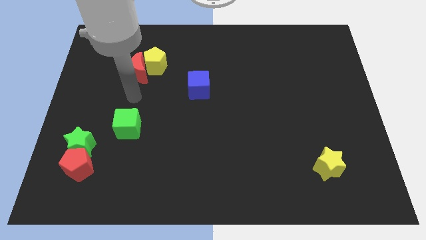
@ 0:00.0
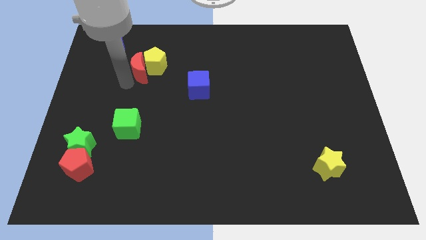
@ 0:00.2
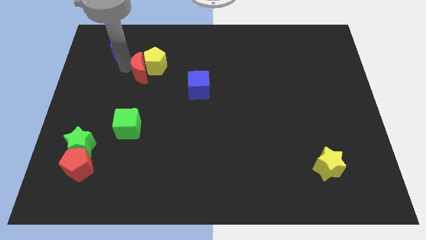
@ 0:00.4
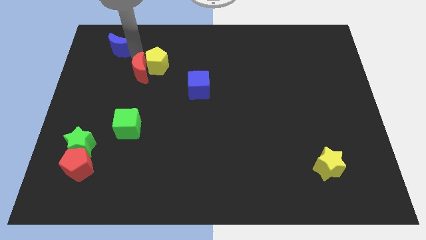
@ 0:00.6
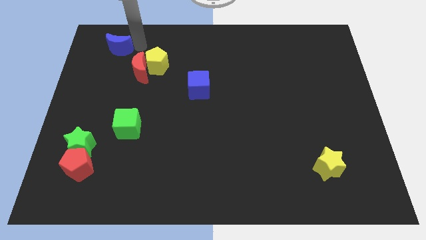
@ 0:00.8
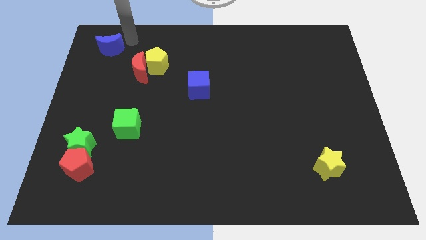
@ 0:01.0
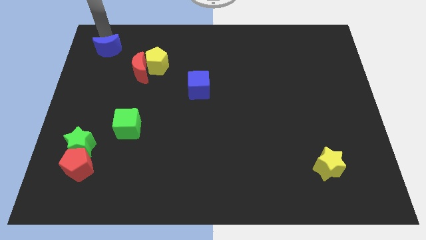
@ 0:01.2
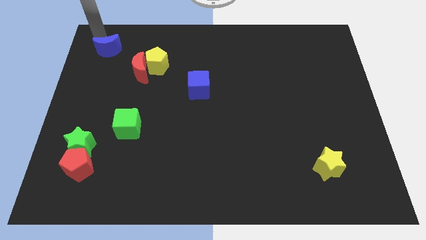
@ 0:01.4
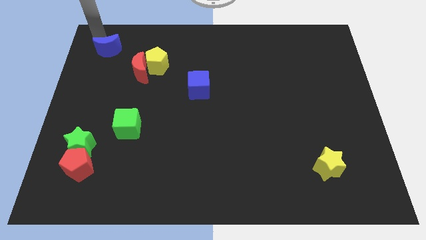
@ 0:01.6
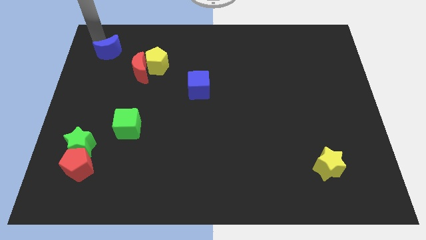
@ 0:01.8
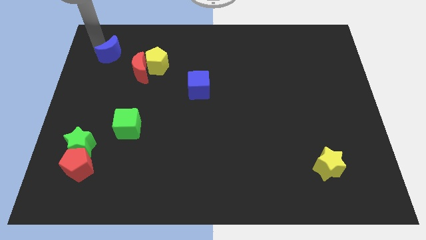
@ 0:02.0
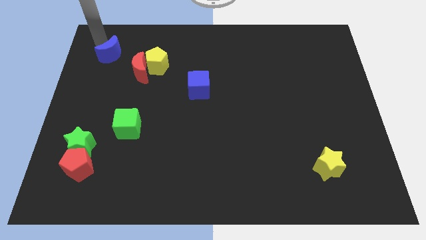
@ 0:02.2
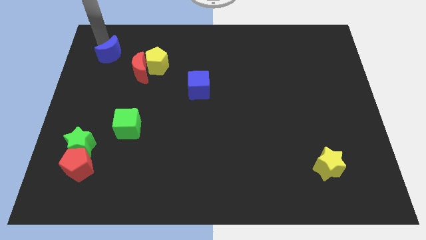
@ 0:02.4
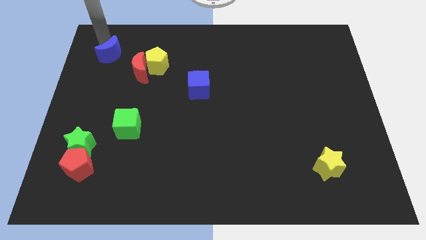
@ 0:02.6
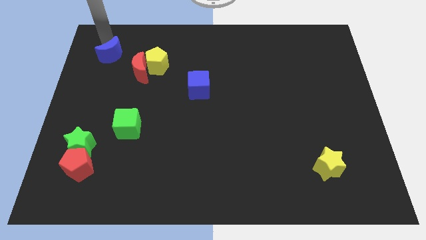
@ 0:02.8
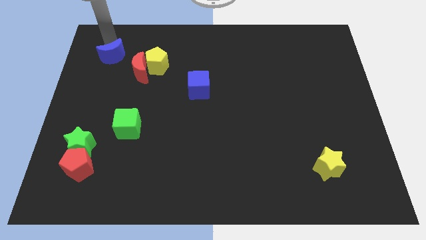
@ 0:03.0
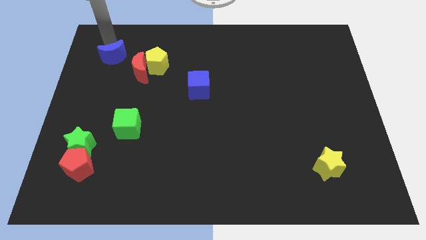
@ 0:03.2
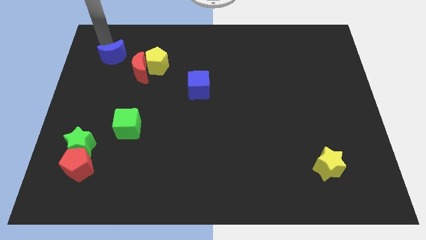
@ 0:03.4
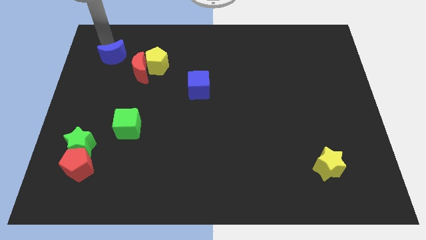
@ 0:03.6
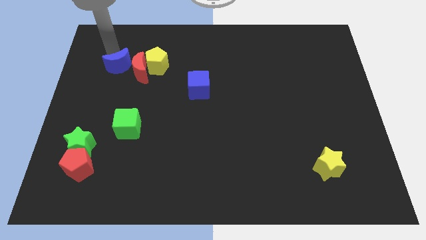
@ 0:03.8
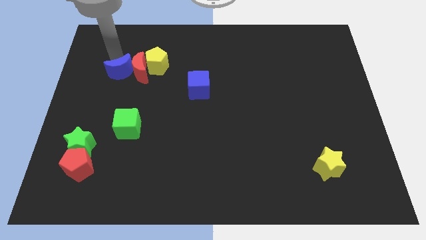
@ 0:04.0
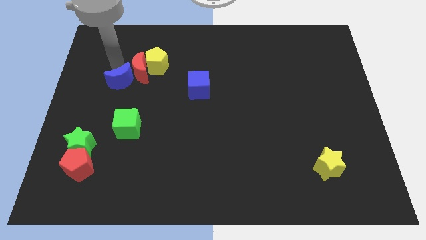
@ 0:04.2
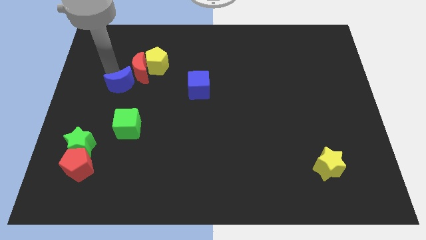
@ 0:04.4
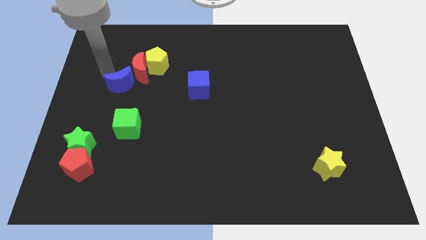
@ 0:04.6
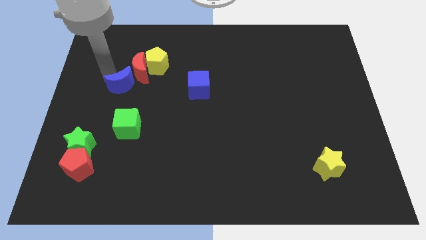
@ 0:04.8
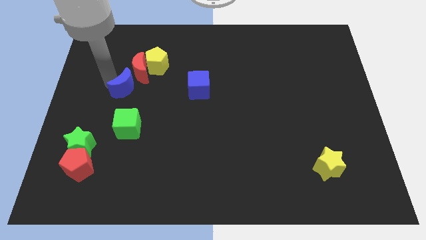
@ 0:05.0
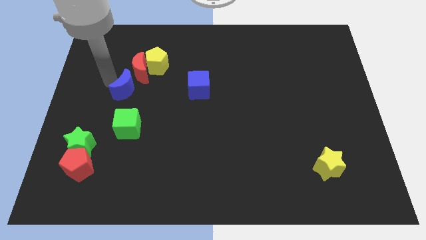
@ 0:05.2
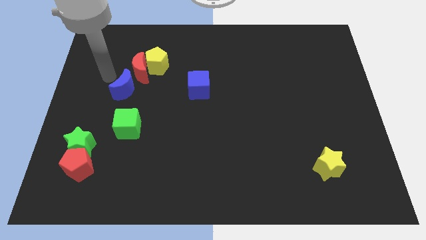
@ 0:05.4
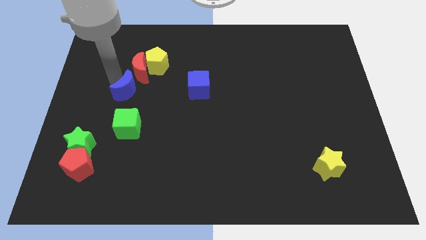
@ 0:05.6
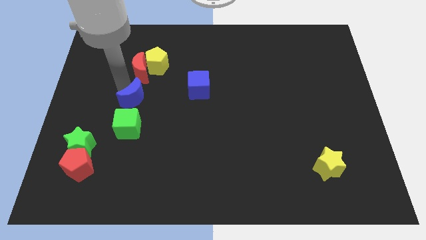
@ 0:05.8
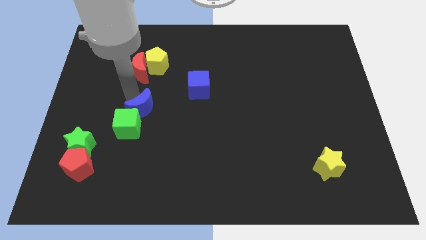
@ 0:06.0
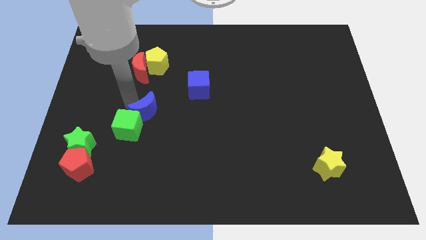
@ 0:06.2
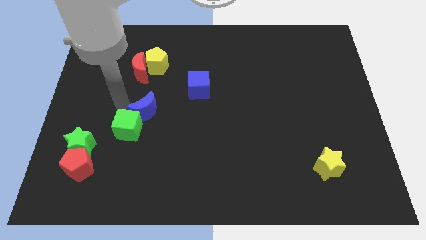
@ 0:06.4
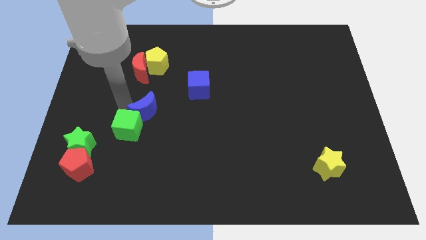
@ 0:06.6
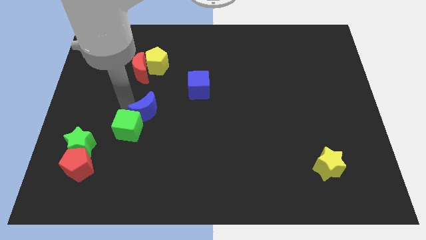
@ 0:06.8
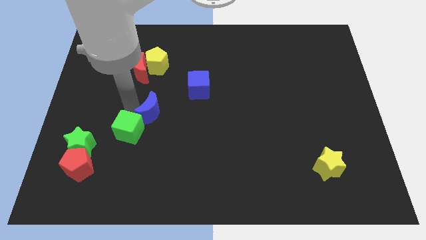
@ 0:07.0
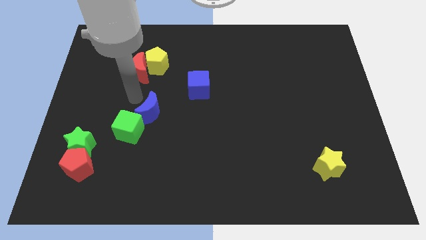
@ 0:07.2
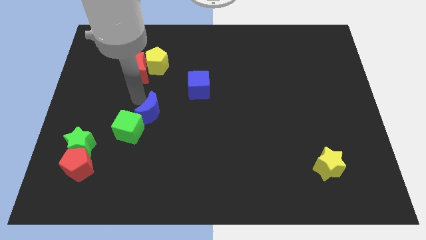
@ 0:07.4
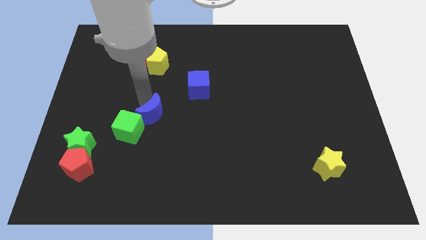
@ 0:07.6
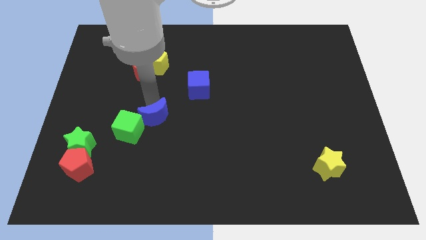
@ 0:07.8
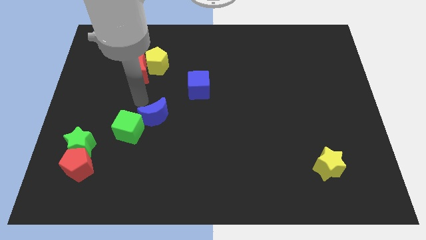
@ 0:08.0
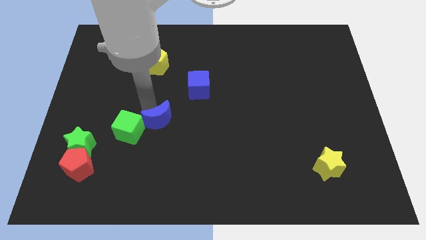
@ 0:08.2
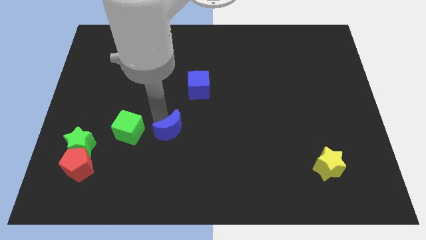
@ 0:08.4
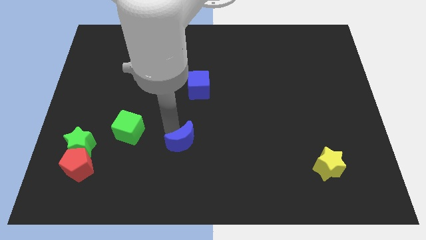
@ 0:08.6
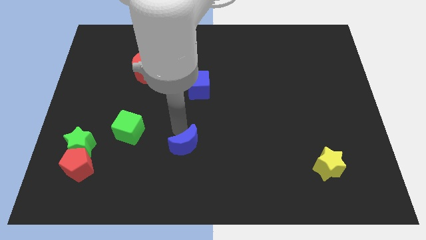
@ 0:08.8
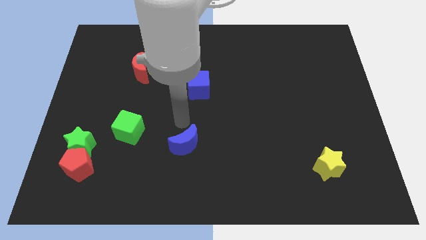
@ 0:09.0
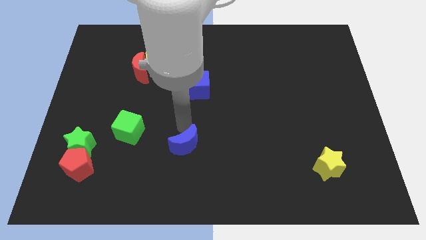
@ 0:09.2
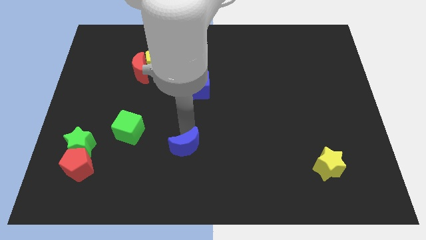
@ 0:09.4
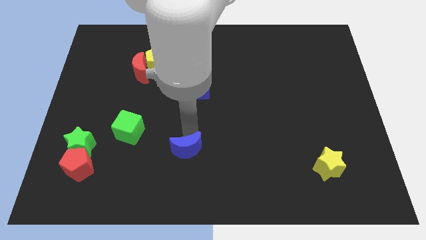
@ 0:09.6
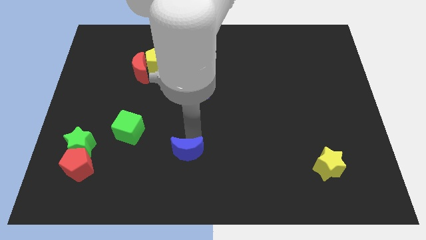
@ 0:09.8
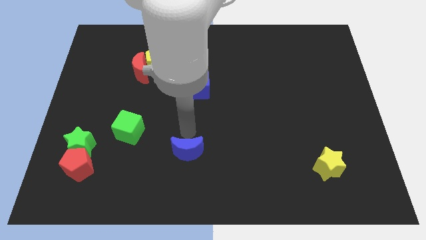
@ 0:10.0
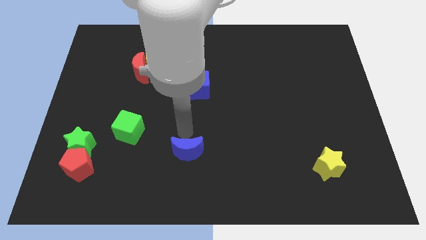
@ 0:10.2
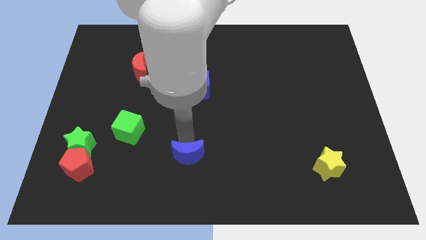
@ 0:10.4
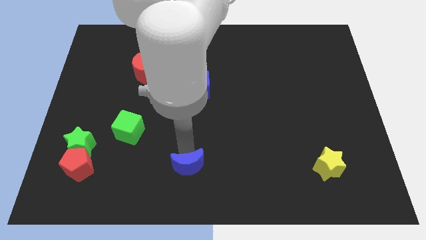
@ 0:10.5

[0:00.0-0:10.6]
move the blue moon to the bottom

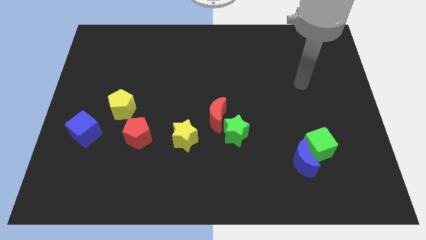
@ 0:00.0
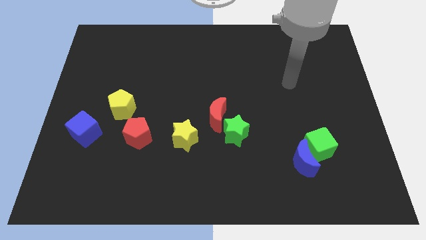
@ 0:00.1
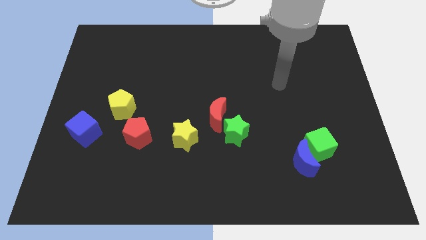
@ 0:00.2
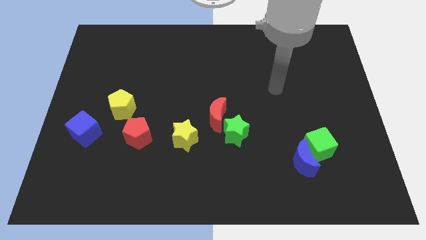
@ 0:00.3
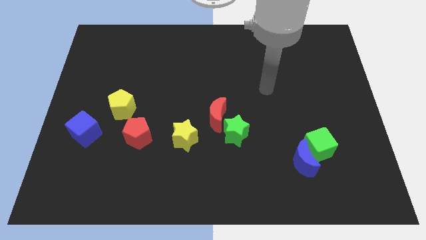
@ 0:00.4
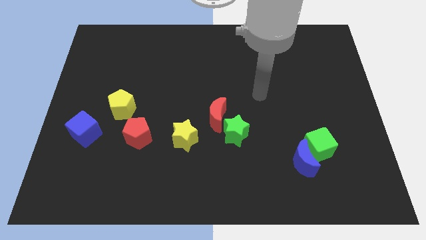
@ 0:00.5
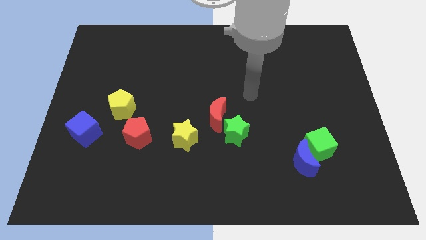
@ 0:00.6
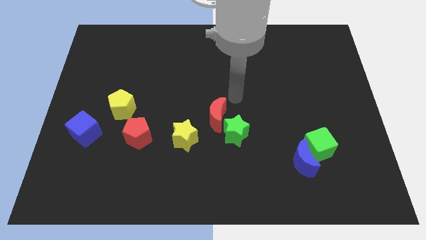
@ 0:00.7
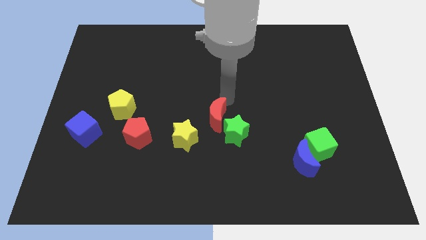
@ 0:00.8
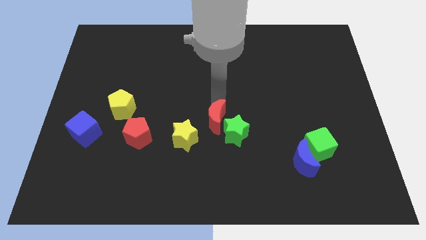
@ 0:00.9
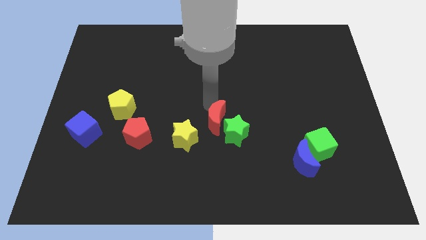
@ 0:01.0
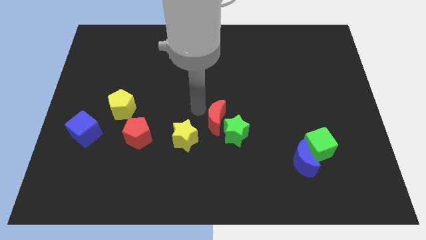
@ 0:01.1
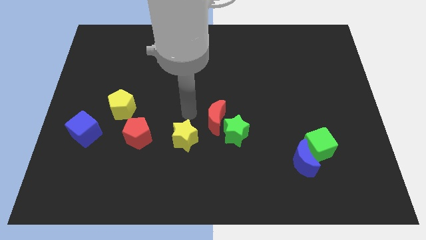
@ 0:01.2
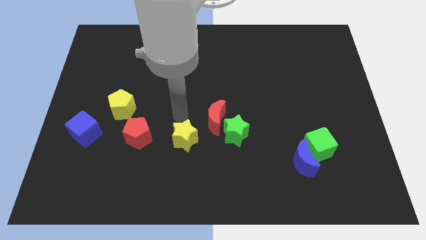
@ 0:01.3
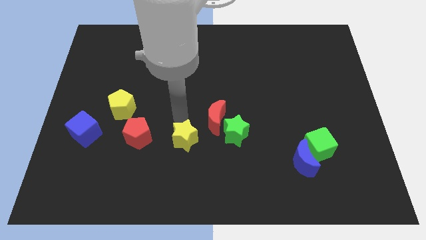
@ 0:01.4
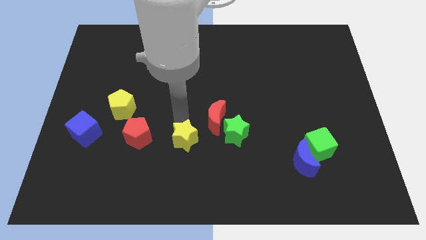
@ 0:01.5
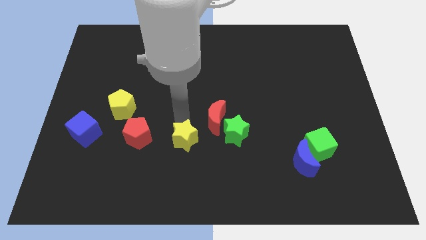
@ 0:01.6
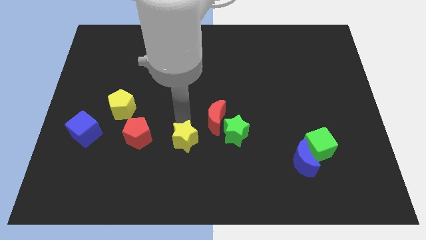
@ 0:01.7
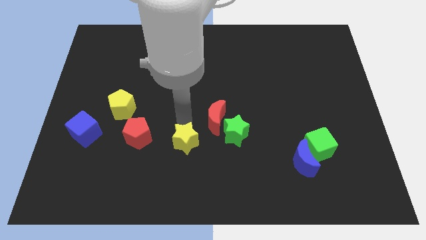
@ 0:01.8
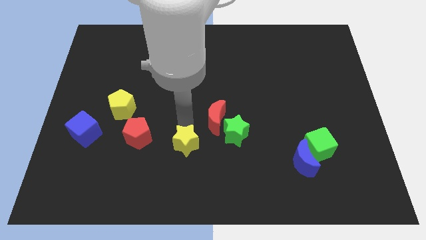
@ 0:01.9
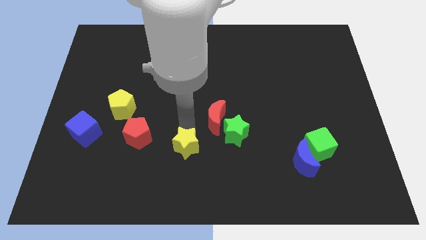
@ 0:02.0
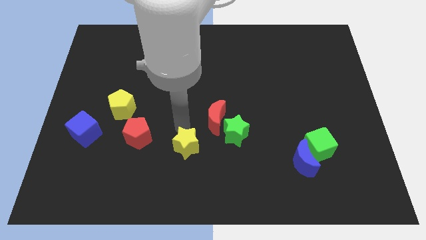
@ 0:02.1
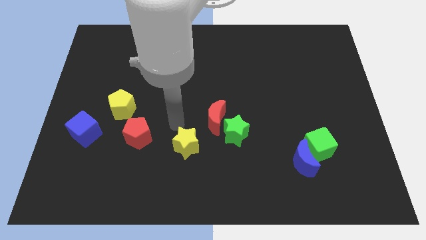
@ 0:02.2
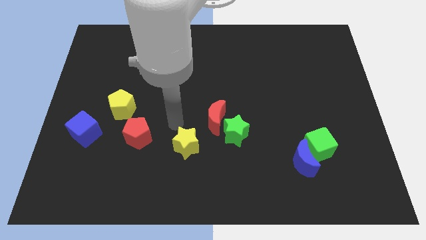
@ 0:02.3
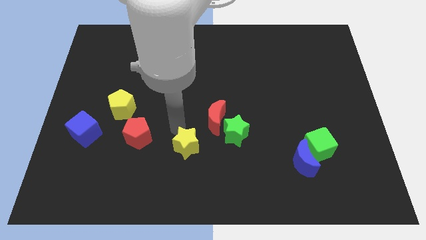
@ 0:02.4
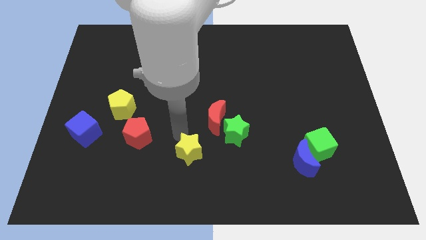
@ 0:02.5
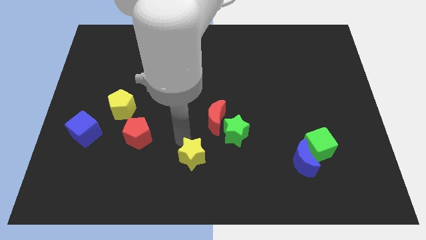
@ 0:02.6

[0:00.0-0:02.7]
slide the yellow star to the bottom
